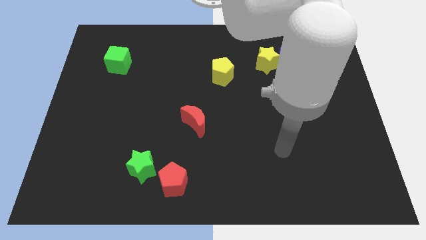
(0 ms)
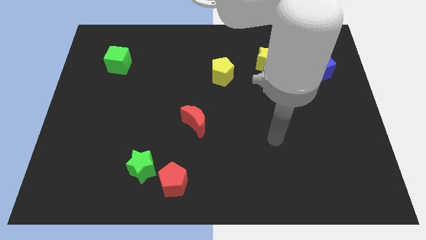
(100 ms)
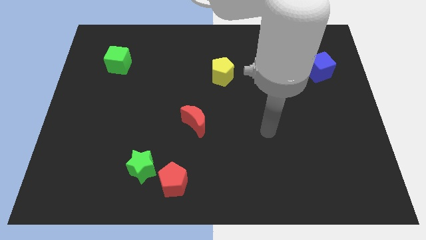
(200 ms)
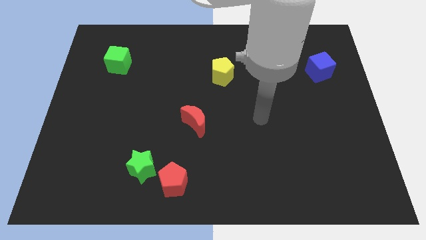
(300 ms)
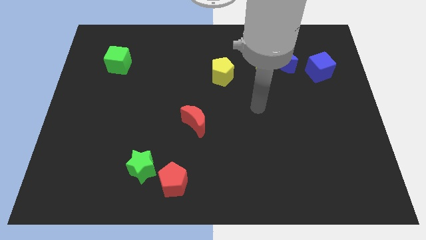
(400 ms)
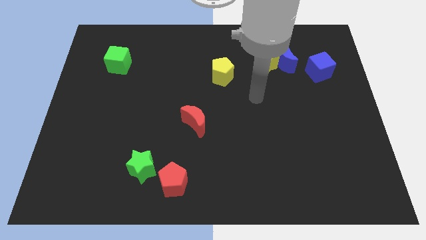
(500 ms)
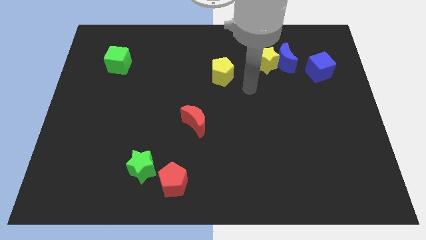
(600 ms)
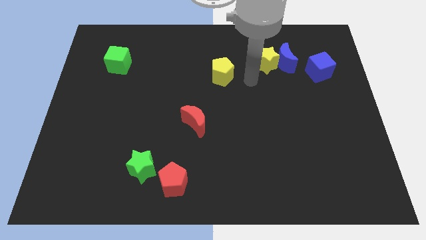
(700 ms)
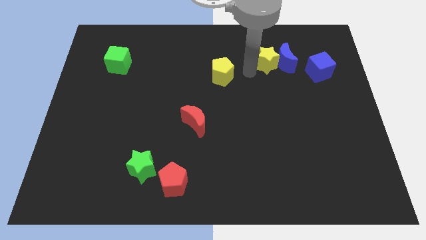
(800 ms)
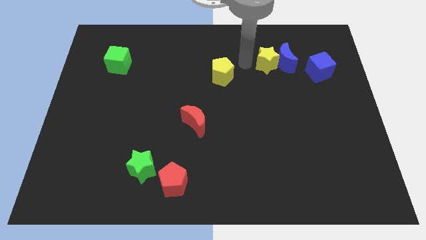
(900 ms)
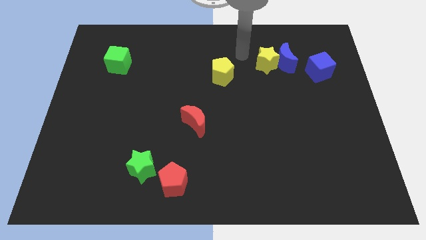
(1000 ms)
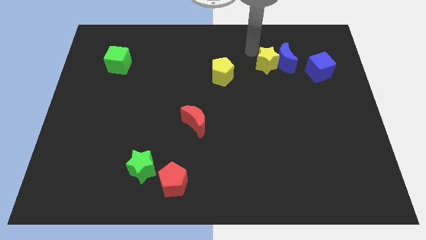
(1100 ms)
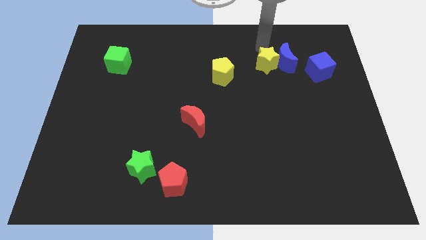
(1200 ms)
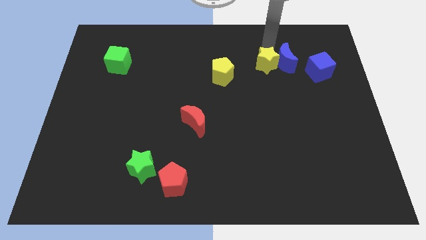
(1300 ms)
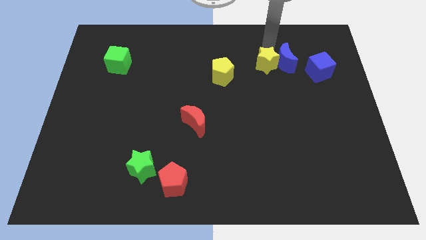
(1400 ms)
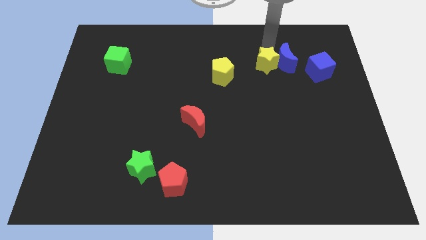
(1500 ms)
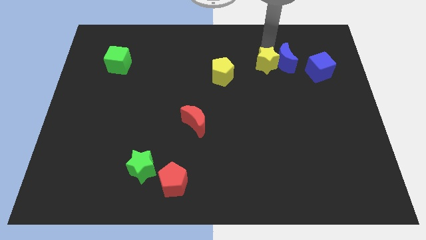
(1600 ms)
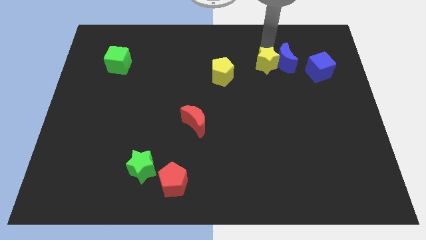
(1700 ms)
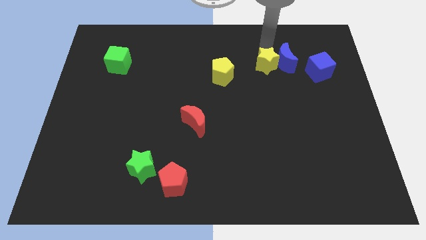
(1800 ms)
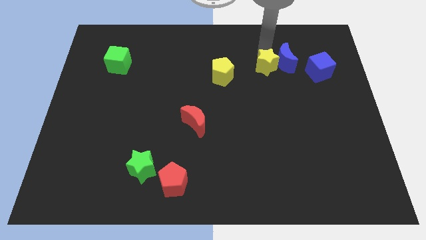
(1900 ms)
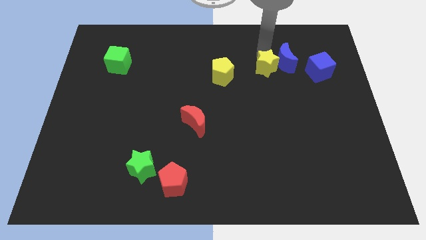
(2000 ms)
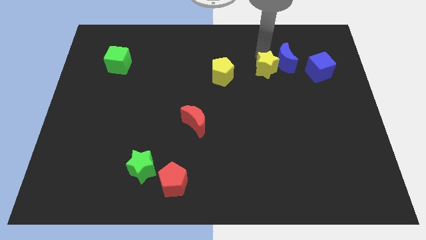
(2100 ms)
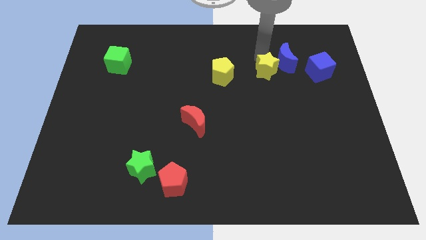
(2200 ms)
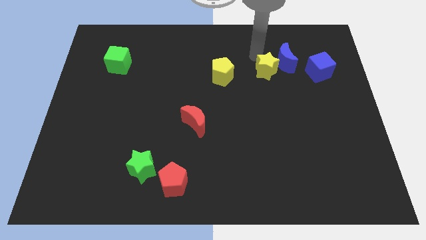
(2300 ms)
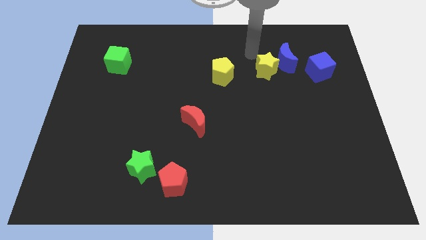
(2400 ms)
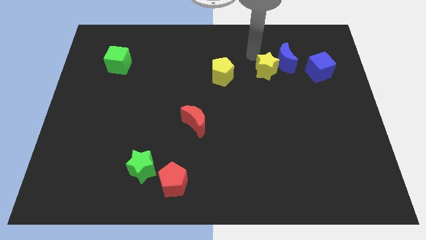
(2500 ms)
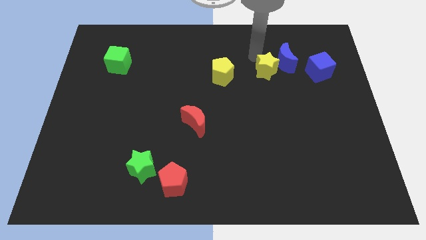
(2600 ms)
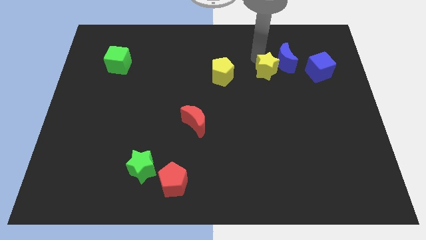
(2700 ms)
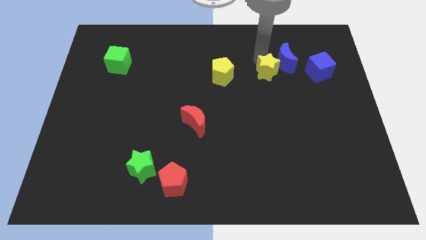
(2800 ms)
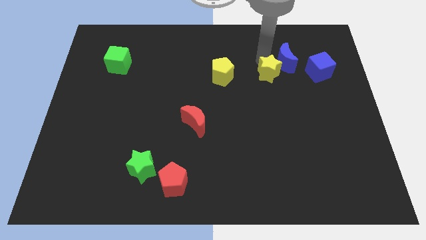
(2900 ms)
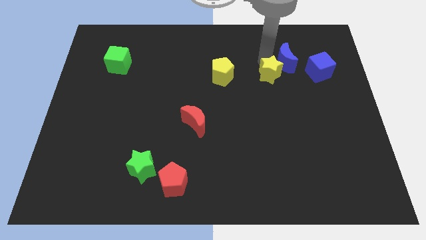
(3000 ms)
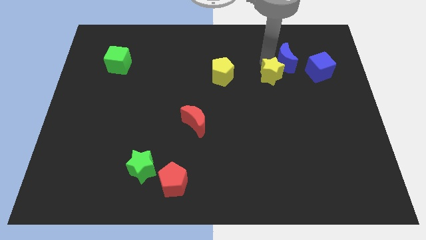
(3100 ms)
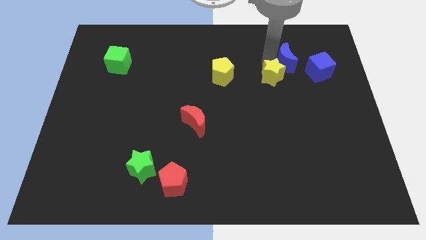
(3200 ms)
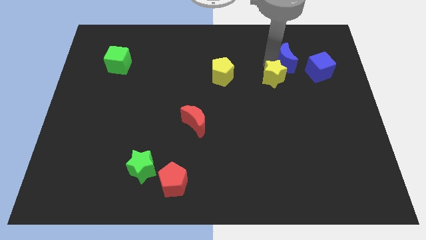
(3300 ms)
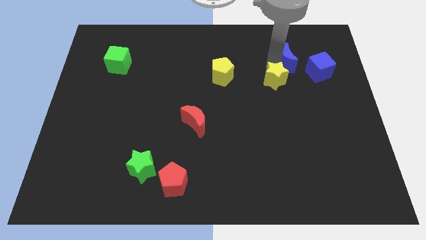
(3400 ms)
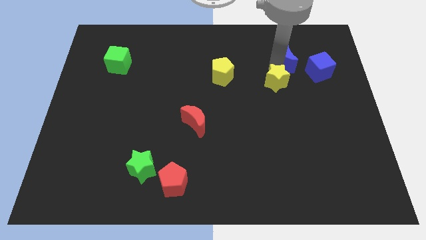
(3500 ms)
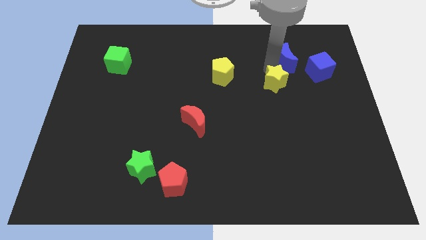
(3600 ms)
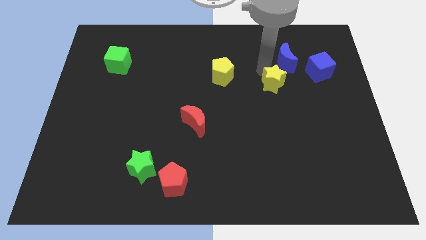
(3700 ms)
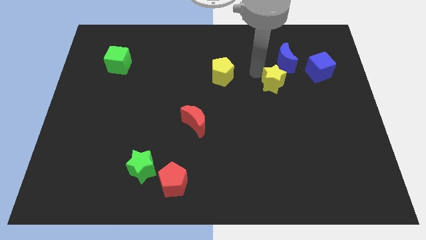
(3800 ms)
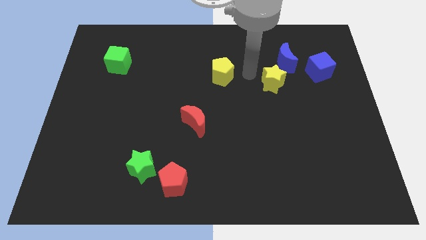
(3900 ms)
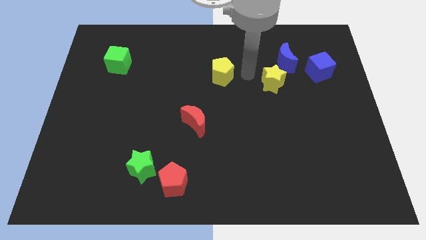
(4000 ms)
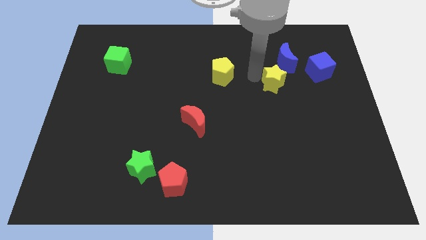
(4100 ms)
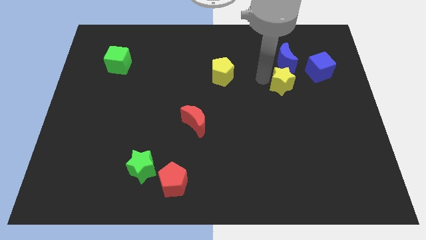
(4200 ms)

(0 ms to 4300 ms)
push the yellow star slightly downwards and then right

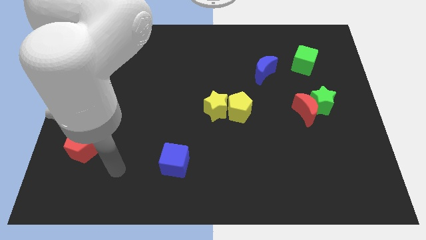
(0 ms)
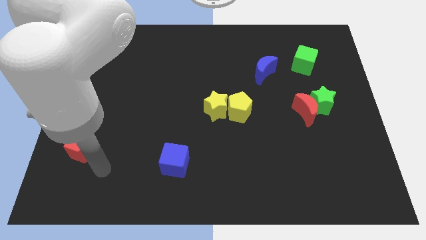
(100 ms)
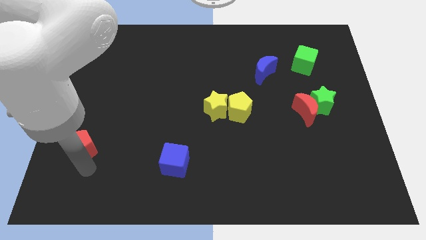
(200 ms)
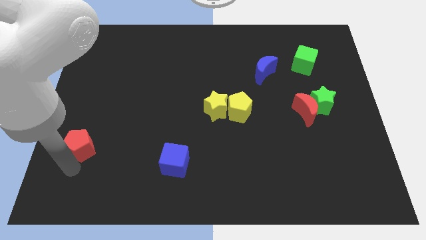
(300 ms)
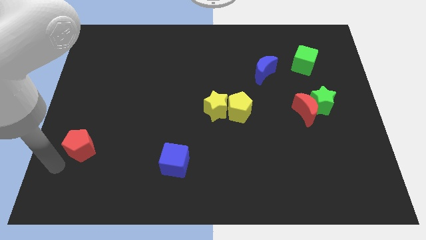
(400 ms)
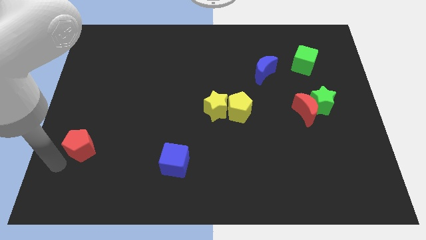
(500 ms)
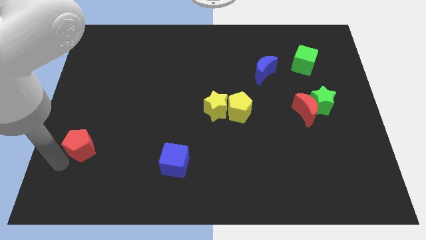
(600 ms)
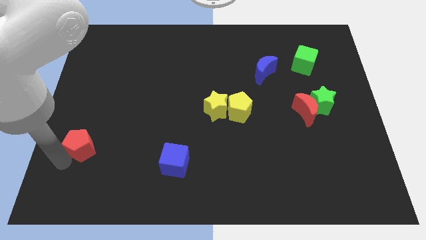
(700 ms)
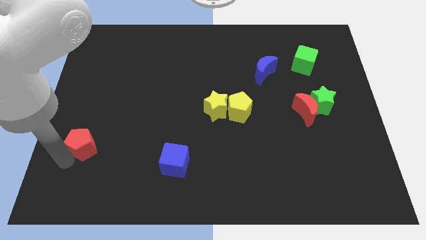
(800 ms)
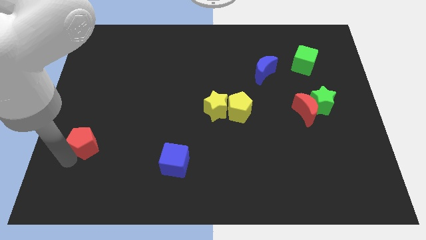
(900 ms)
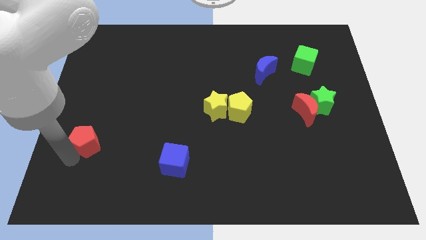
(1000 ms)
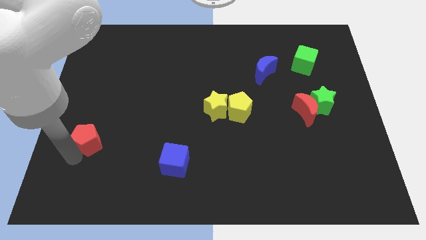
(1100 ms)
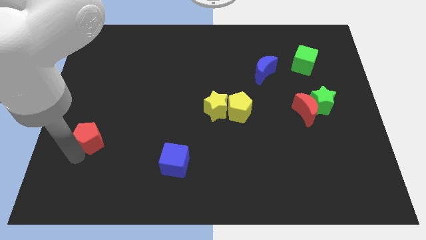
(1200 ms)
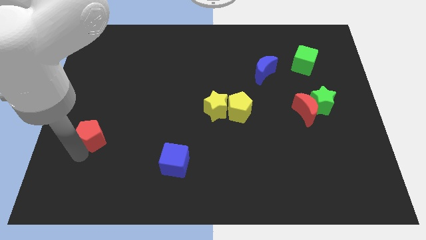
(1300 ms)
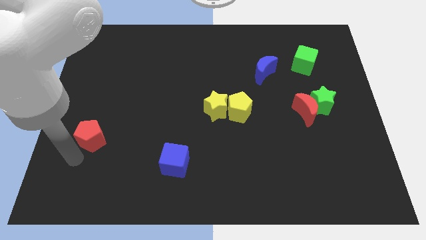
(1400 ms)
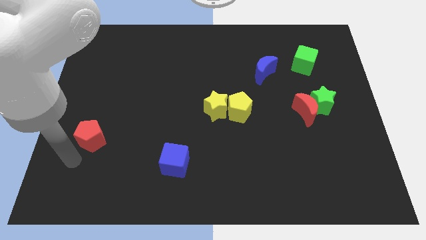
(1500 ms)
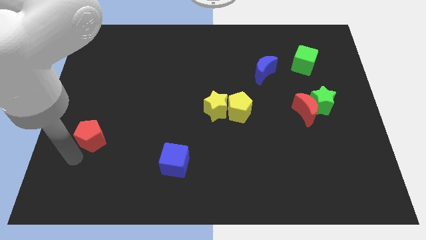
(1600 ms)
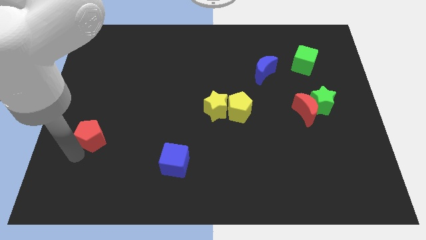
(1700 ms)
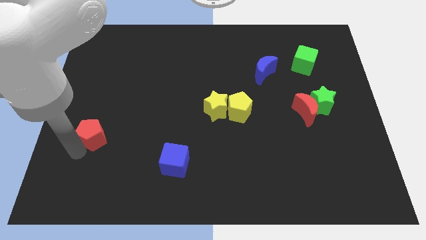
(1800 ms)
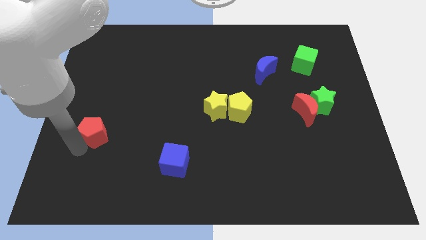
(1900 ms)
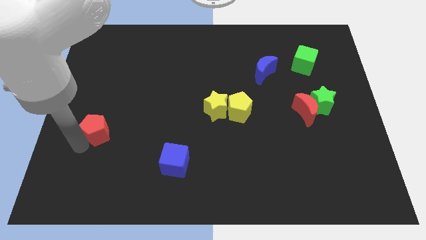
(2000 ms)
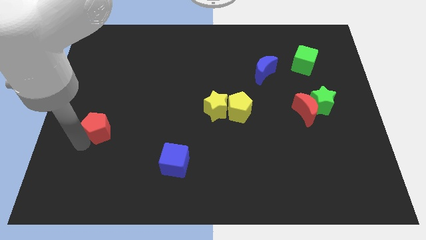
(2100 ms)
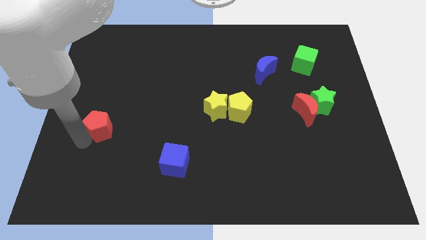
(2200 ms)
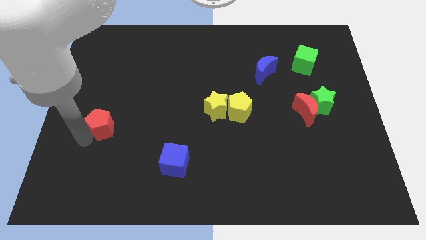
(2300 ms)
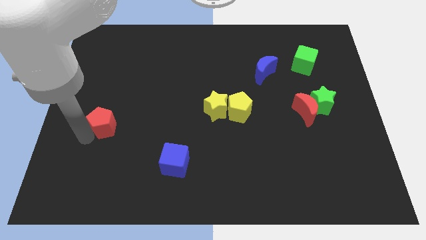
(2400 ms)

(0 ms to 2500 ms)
push the red pentagon diagonally upwards and right slightly

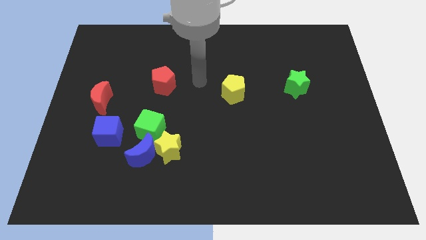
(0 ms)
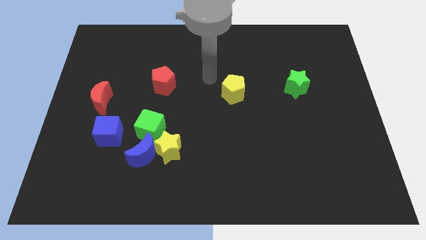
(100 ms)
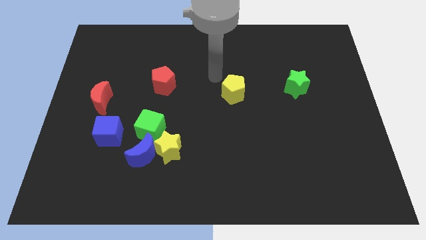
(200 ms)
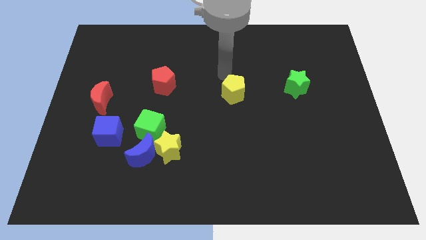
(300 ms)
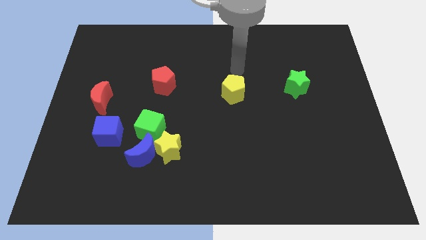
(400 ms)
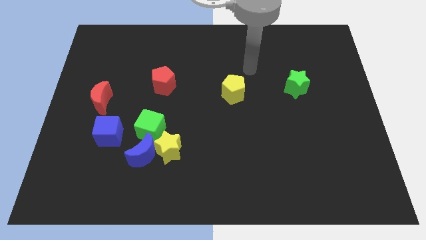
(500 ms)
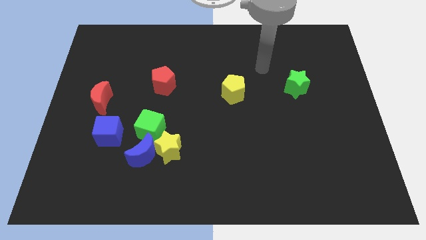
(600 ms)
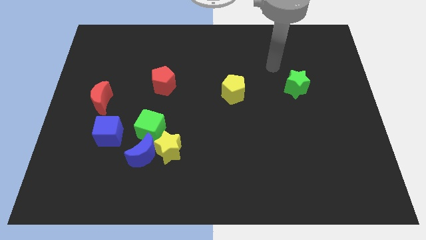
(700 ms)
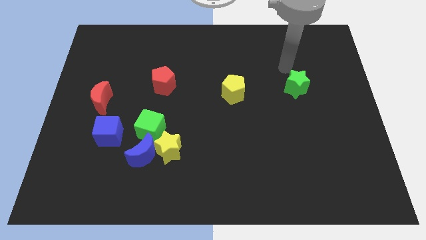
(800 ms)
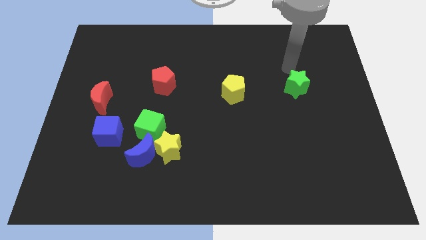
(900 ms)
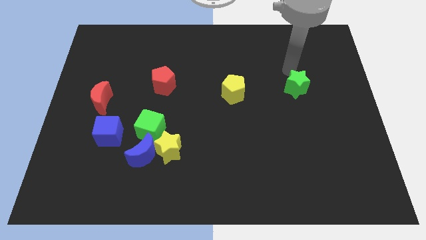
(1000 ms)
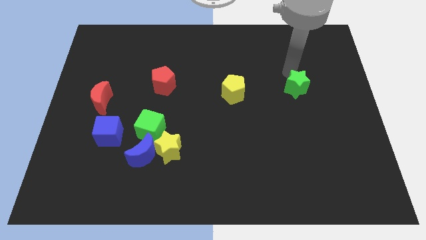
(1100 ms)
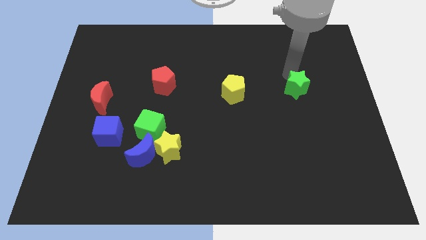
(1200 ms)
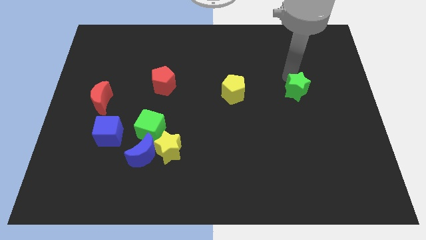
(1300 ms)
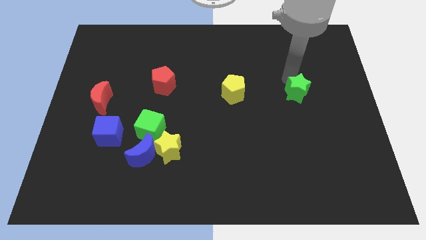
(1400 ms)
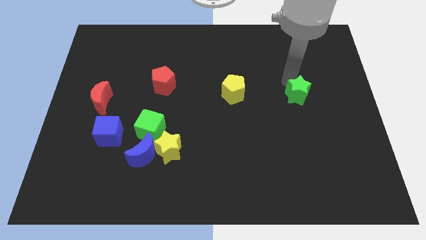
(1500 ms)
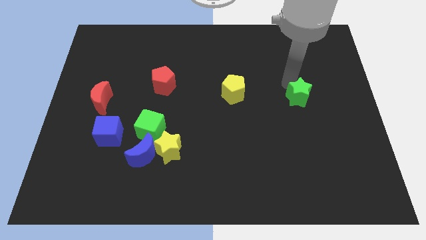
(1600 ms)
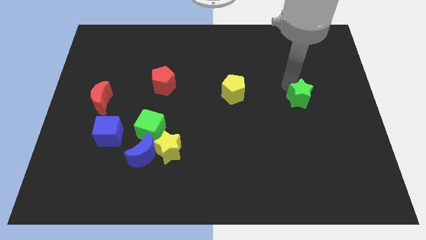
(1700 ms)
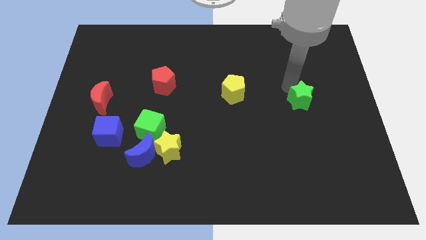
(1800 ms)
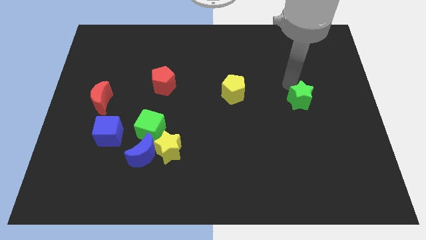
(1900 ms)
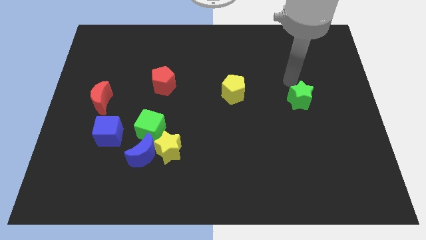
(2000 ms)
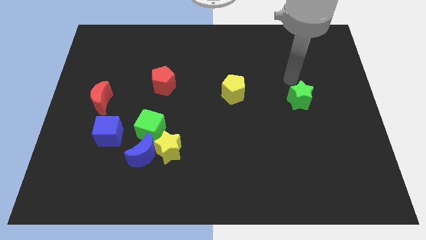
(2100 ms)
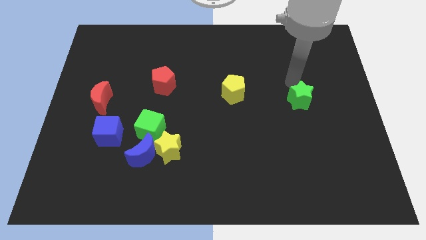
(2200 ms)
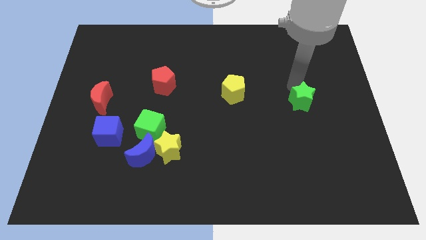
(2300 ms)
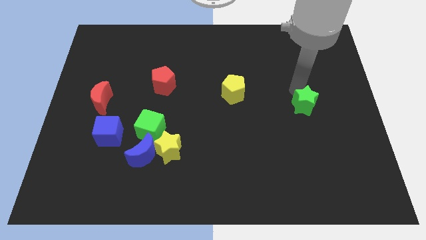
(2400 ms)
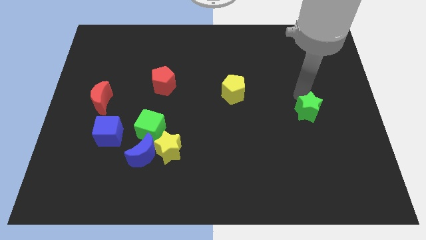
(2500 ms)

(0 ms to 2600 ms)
move the green star a little bit downwards
